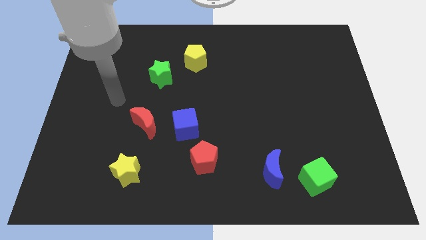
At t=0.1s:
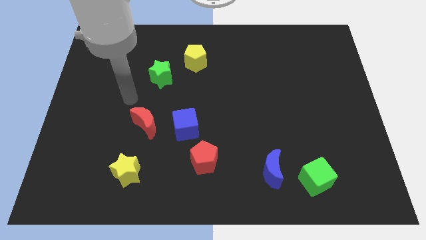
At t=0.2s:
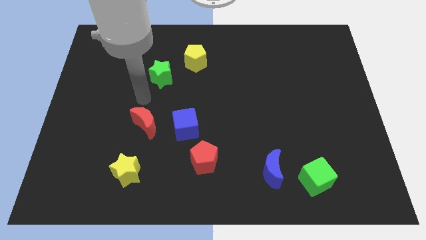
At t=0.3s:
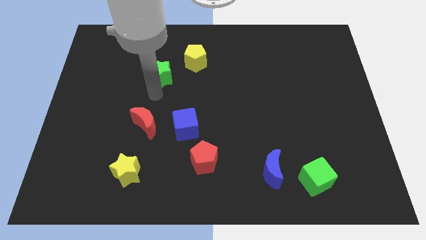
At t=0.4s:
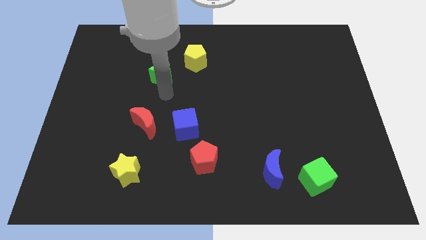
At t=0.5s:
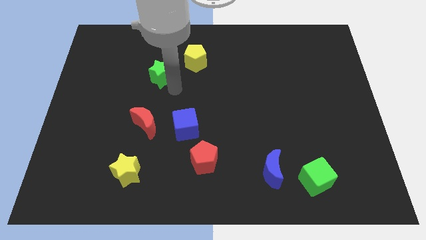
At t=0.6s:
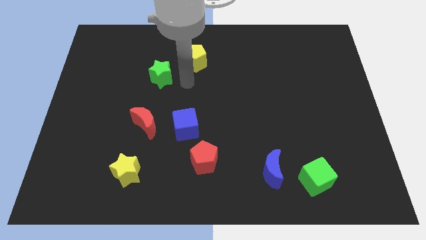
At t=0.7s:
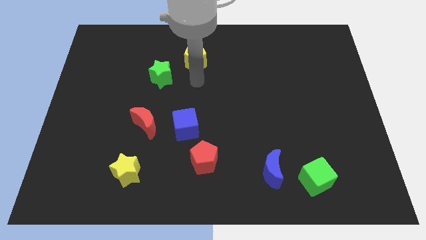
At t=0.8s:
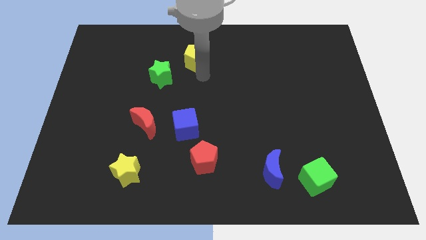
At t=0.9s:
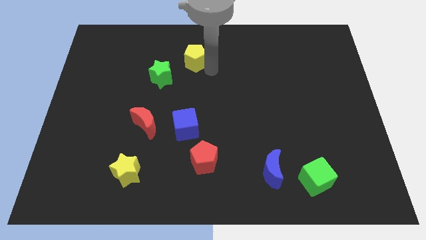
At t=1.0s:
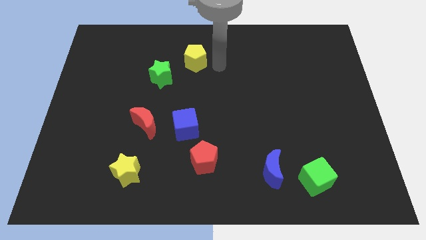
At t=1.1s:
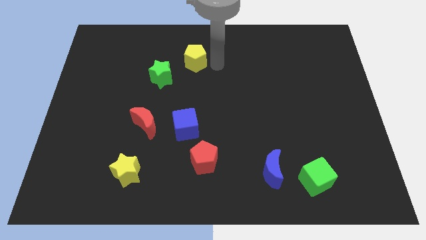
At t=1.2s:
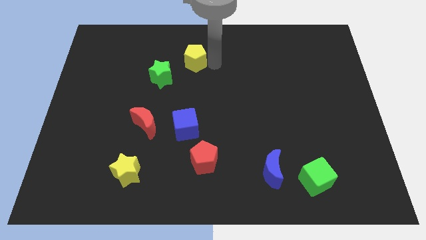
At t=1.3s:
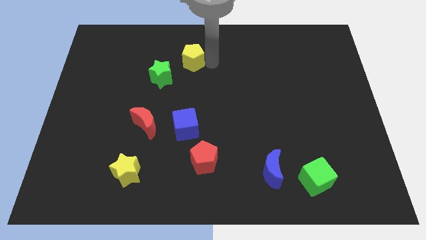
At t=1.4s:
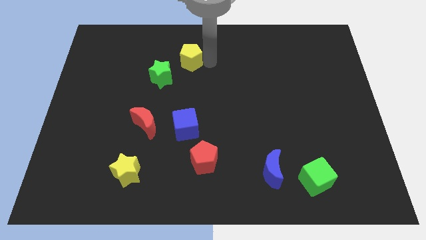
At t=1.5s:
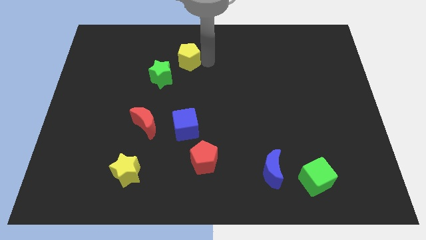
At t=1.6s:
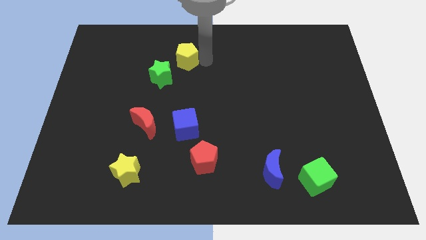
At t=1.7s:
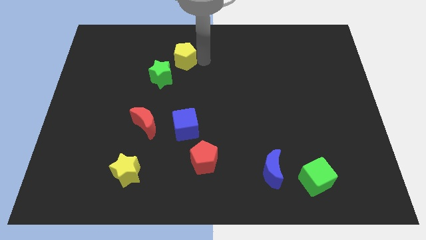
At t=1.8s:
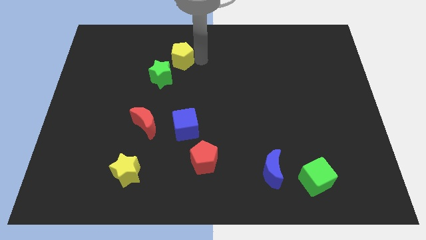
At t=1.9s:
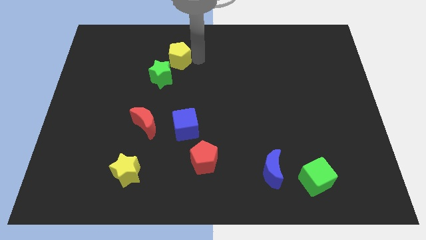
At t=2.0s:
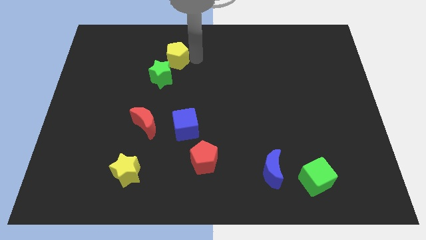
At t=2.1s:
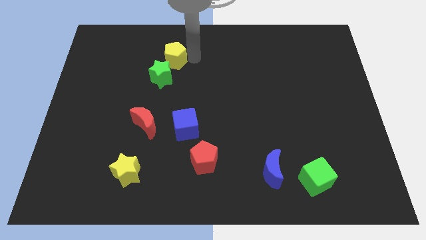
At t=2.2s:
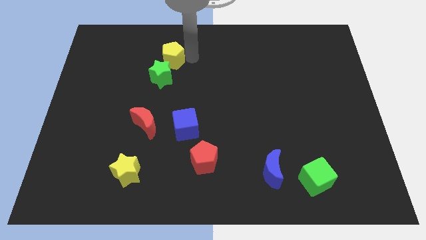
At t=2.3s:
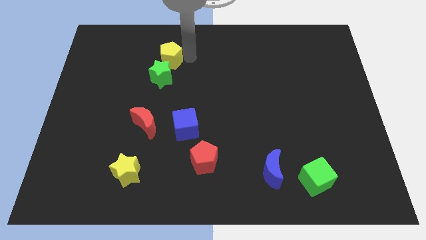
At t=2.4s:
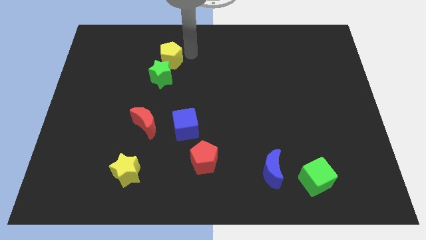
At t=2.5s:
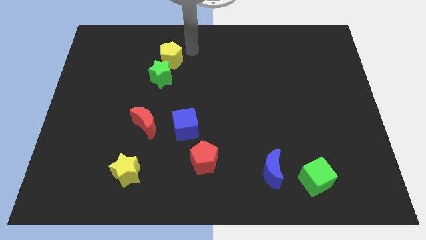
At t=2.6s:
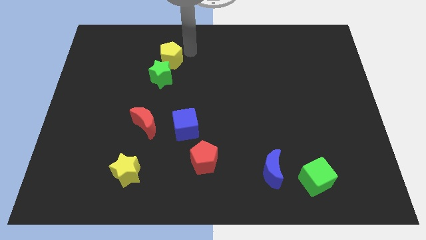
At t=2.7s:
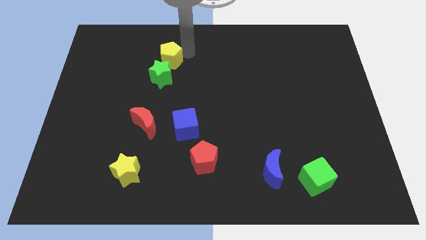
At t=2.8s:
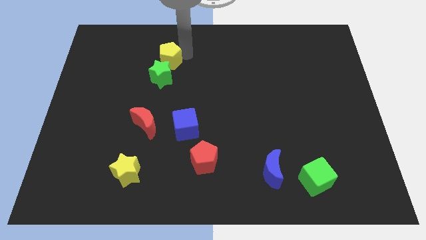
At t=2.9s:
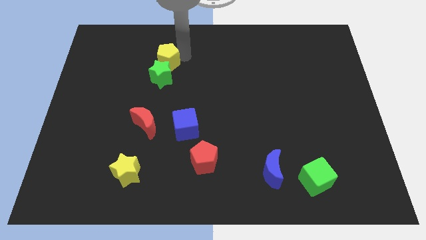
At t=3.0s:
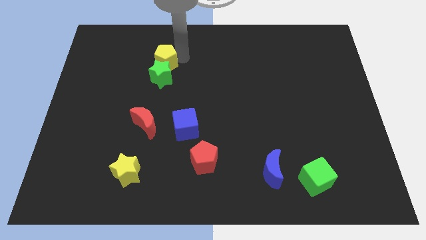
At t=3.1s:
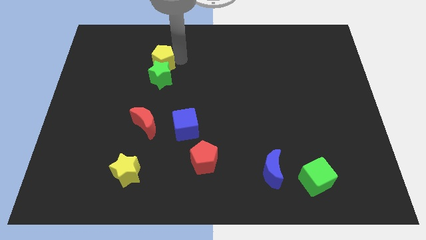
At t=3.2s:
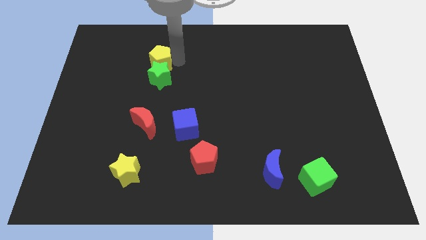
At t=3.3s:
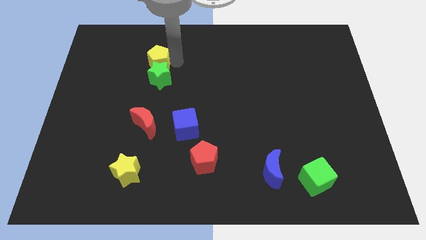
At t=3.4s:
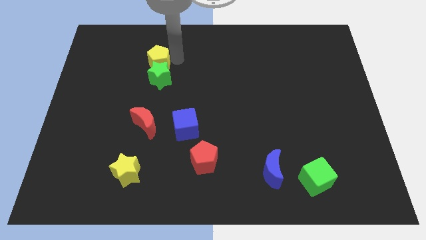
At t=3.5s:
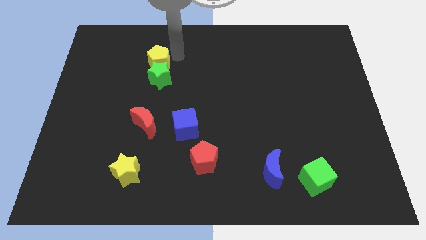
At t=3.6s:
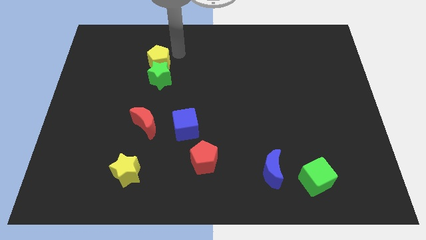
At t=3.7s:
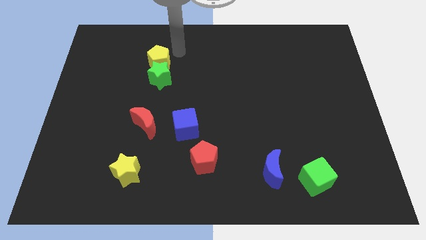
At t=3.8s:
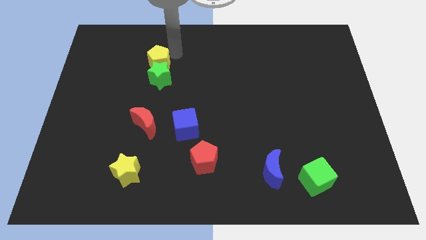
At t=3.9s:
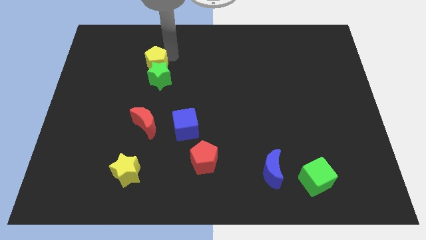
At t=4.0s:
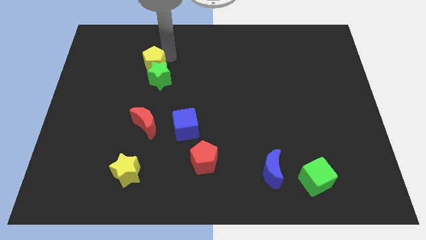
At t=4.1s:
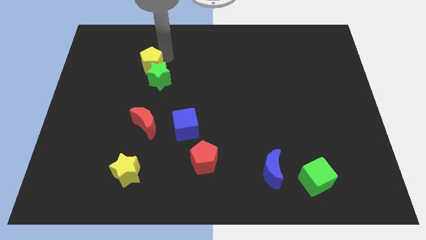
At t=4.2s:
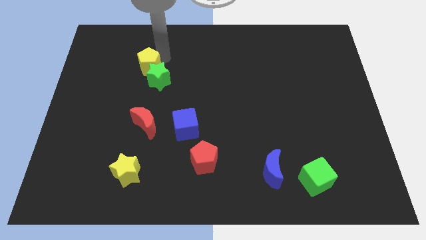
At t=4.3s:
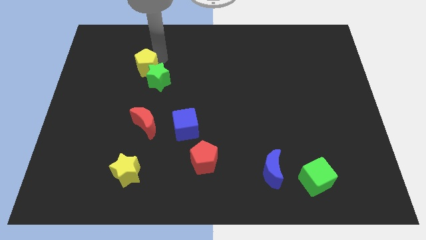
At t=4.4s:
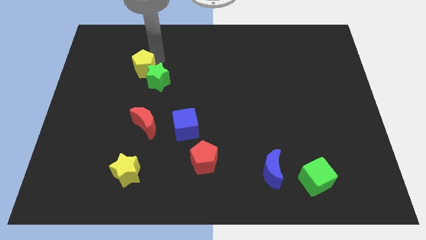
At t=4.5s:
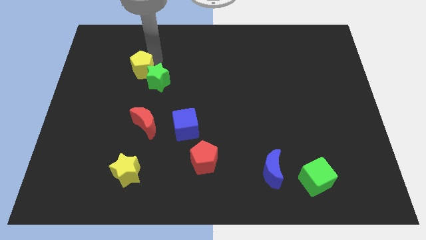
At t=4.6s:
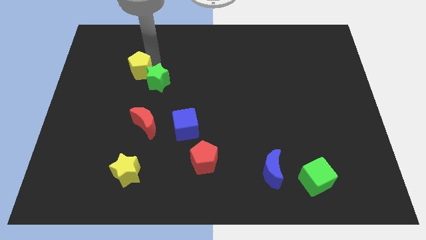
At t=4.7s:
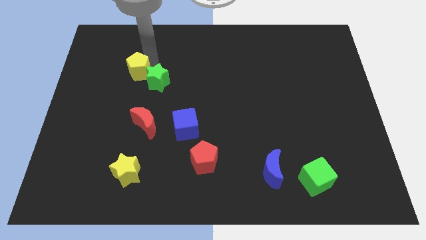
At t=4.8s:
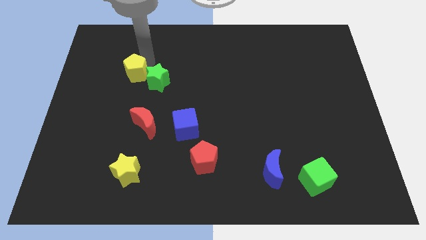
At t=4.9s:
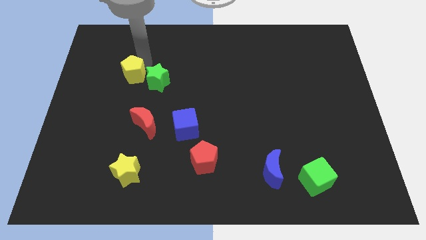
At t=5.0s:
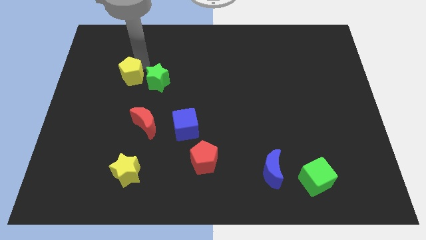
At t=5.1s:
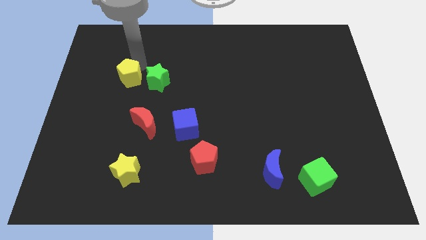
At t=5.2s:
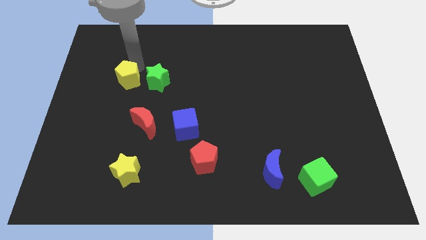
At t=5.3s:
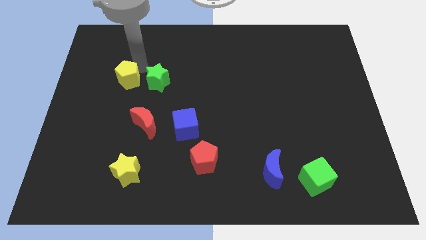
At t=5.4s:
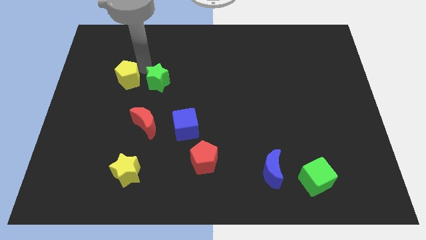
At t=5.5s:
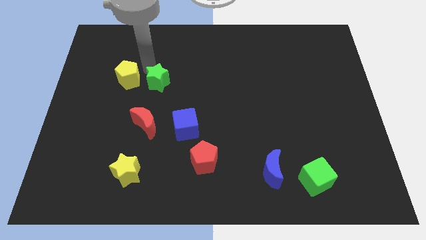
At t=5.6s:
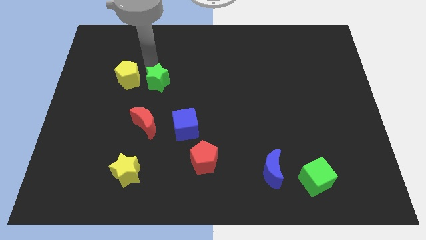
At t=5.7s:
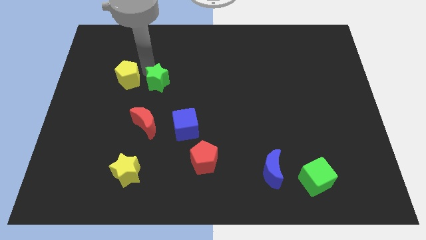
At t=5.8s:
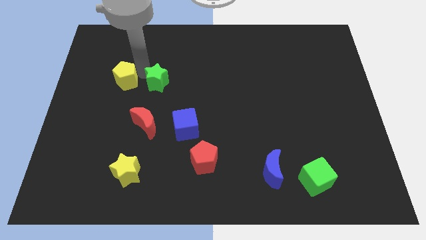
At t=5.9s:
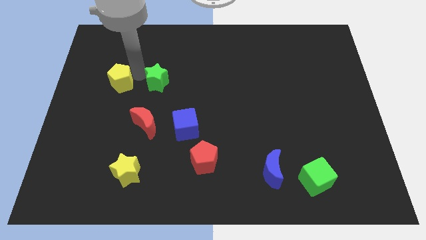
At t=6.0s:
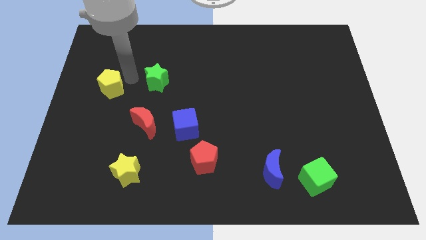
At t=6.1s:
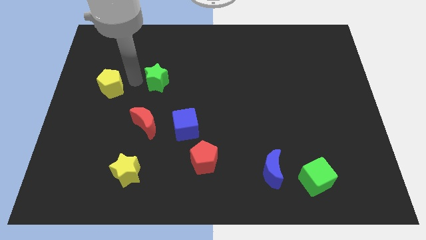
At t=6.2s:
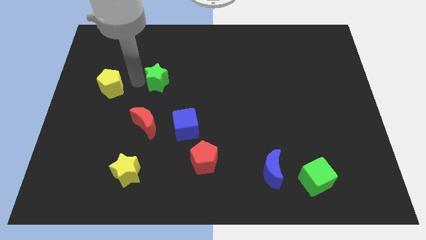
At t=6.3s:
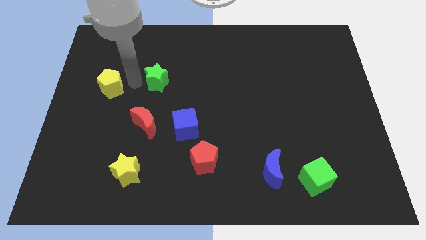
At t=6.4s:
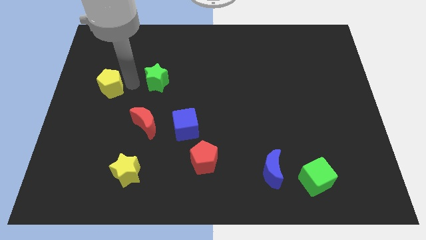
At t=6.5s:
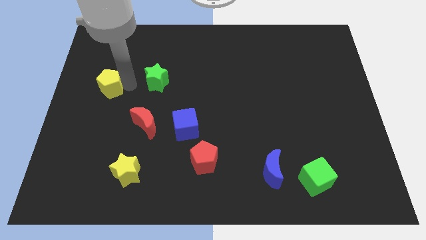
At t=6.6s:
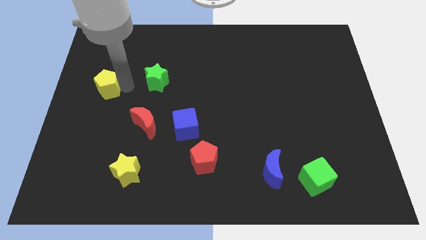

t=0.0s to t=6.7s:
push the yellow pentagon to the center left
